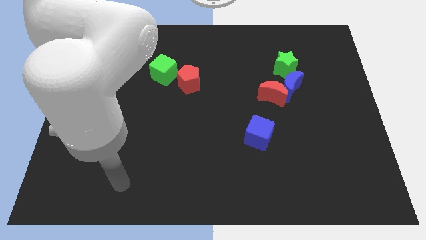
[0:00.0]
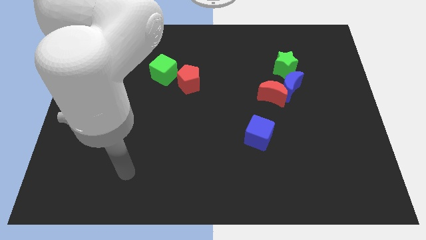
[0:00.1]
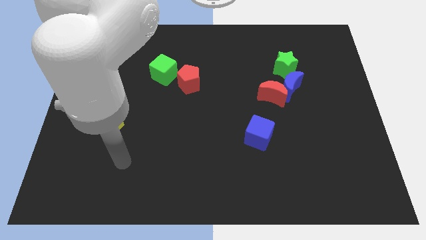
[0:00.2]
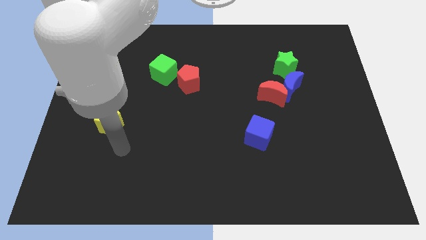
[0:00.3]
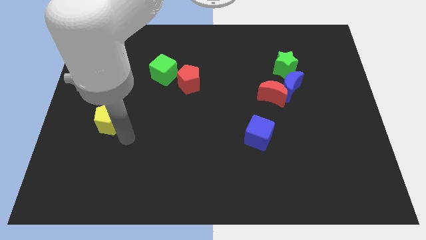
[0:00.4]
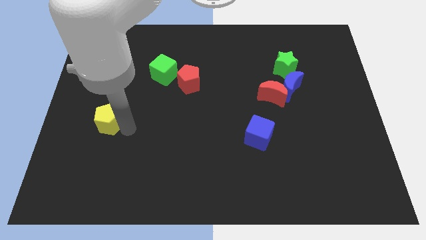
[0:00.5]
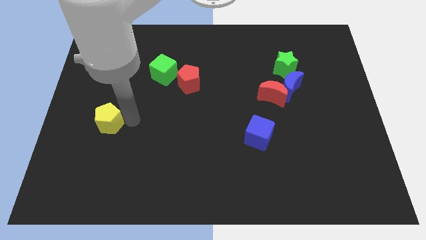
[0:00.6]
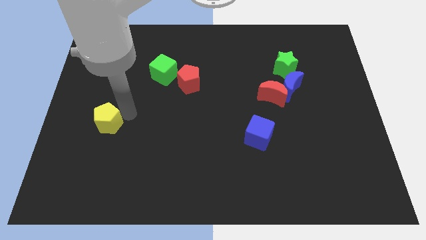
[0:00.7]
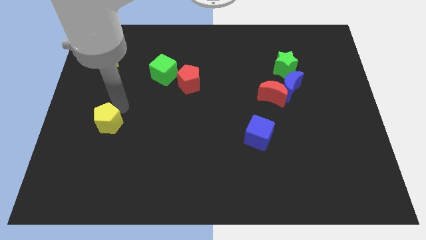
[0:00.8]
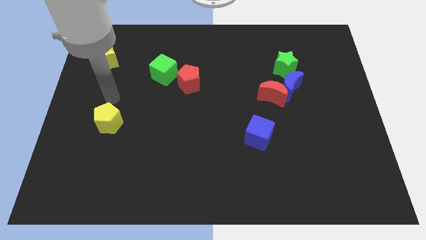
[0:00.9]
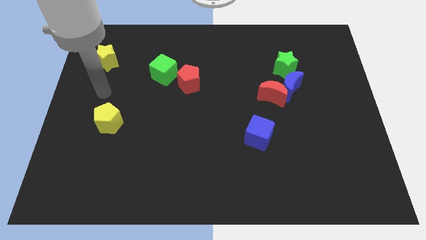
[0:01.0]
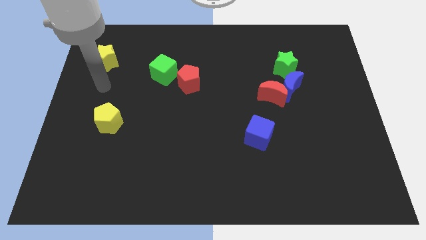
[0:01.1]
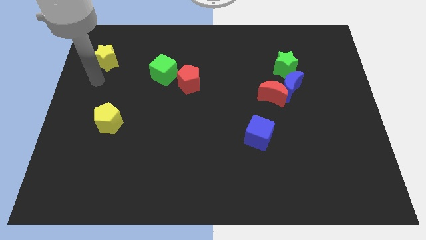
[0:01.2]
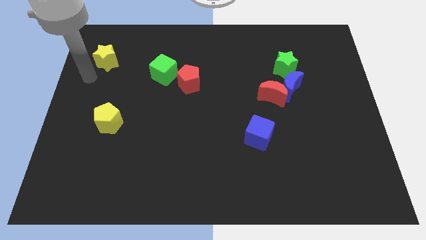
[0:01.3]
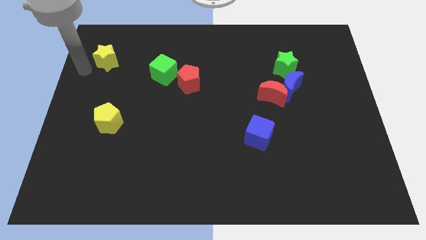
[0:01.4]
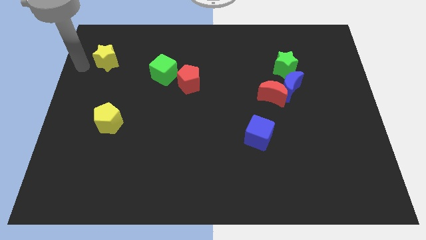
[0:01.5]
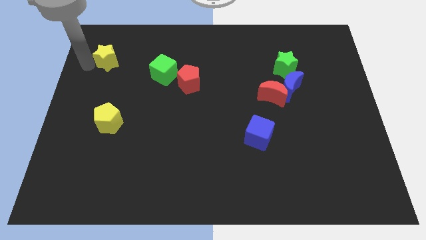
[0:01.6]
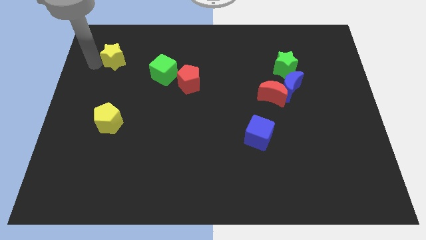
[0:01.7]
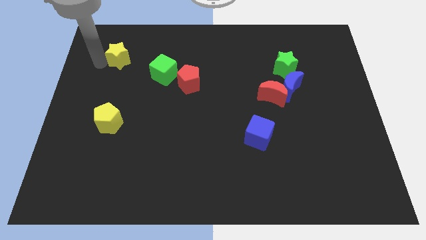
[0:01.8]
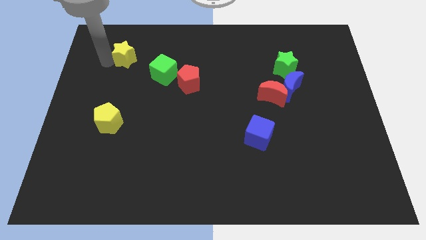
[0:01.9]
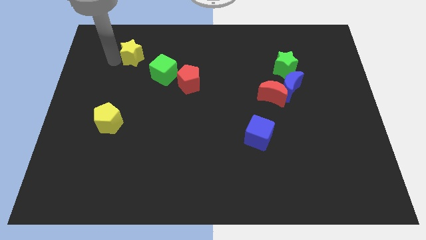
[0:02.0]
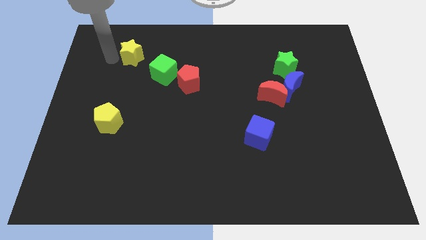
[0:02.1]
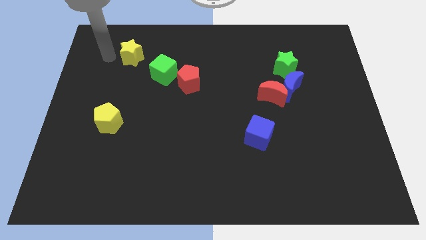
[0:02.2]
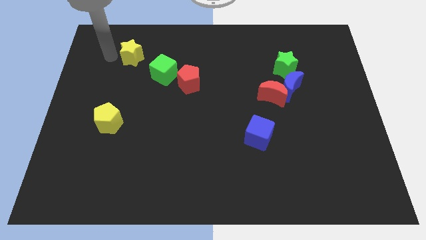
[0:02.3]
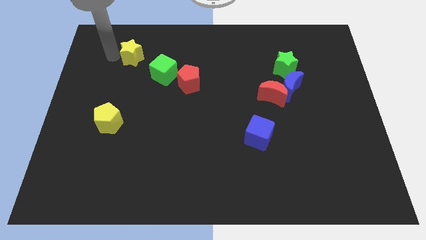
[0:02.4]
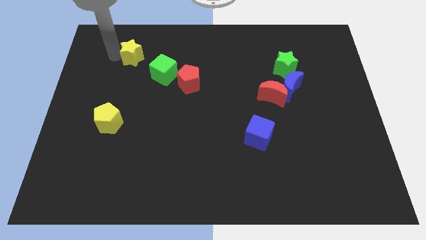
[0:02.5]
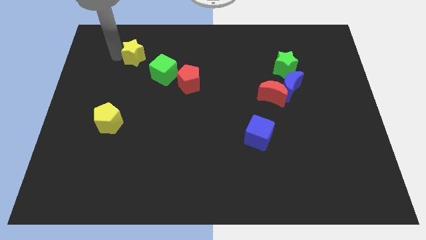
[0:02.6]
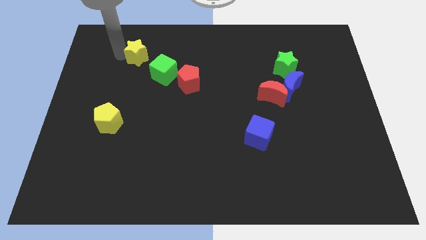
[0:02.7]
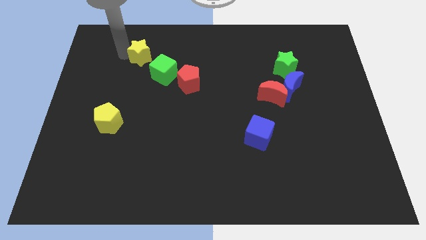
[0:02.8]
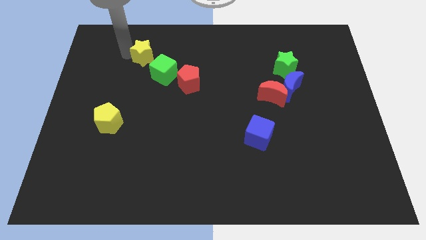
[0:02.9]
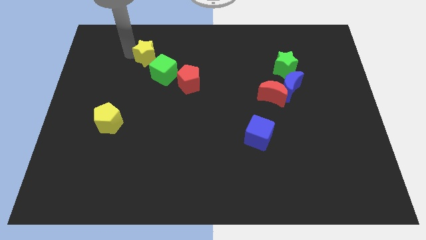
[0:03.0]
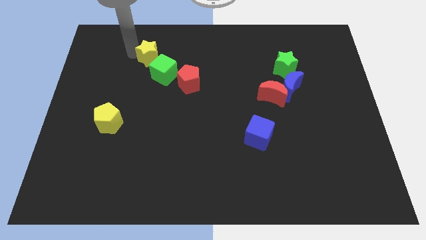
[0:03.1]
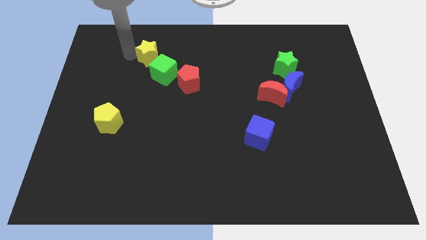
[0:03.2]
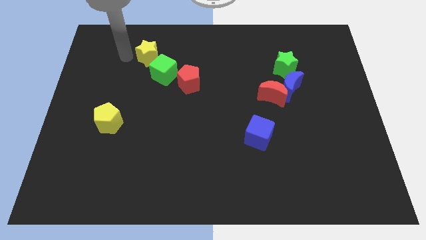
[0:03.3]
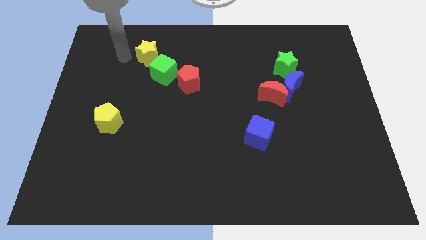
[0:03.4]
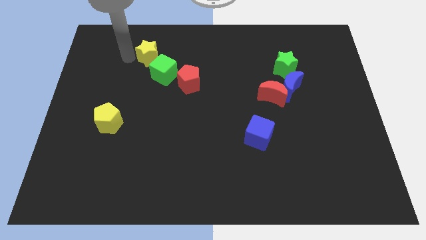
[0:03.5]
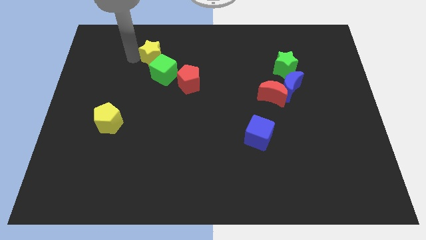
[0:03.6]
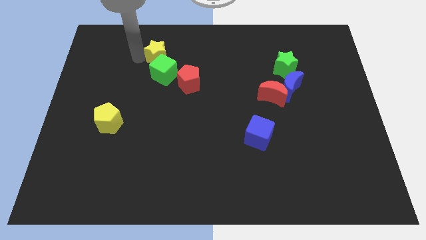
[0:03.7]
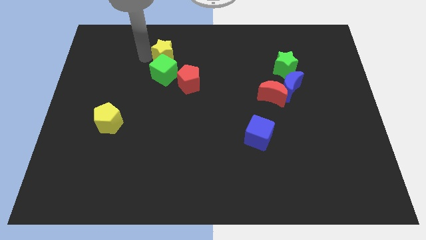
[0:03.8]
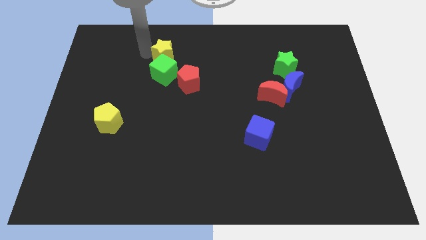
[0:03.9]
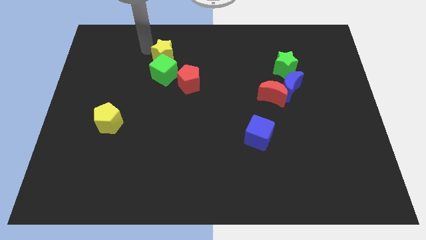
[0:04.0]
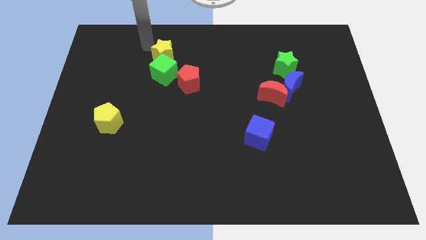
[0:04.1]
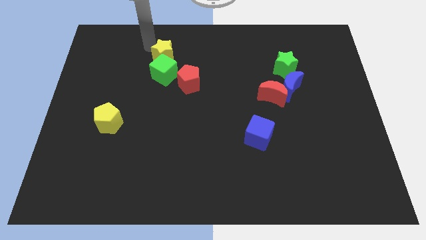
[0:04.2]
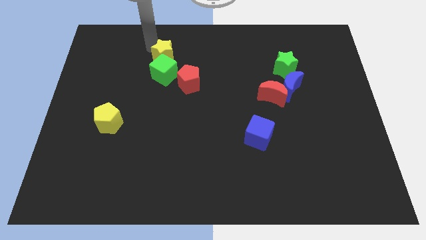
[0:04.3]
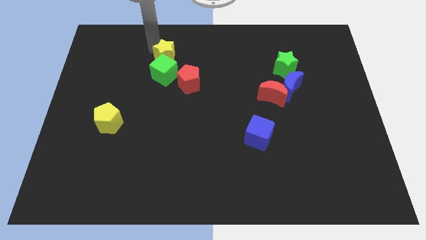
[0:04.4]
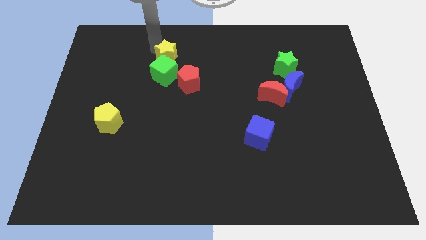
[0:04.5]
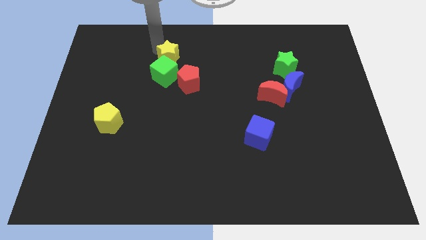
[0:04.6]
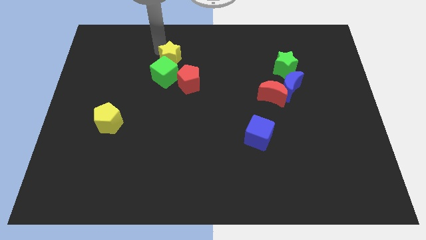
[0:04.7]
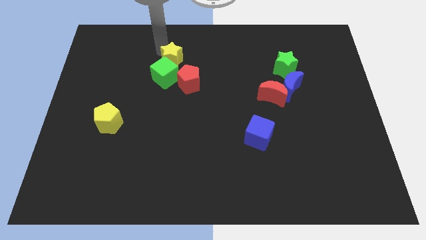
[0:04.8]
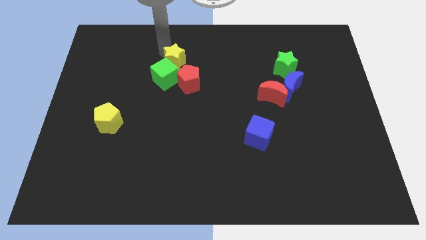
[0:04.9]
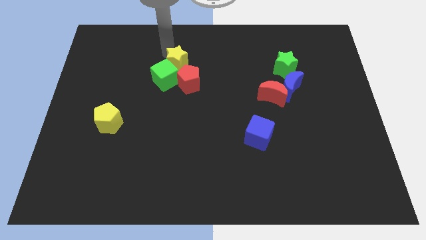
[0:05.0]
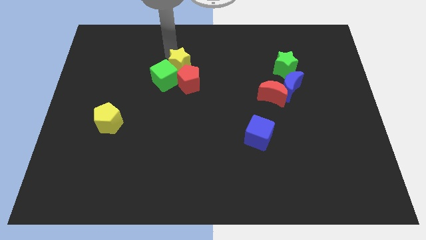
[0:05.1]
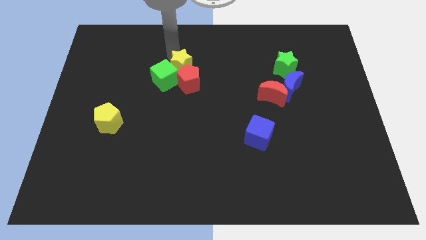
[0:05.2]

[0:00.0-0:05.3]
put the yellow star close to the red pentagon

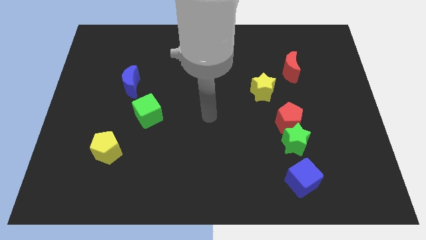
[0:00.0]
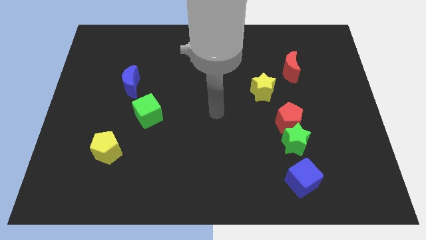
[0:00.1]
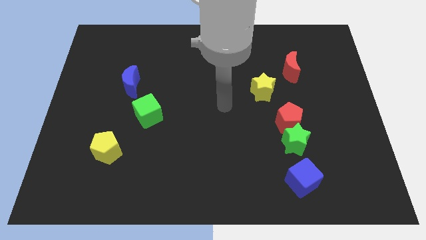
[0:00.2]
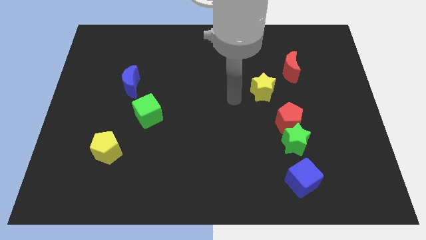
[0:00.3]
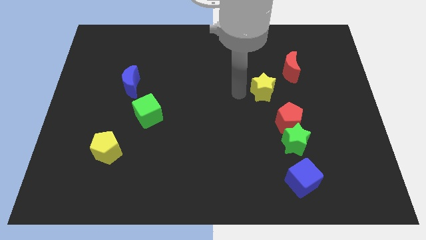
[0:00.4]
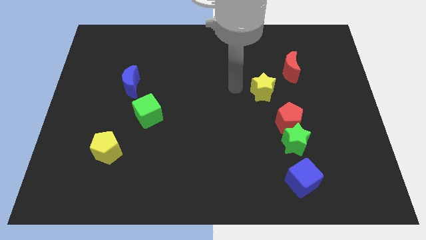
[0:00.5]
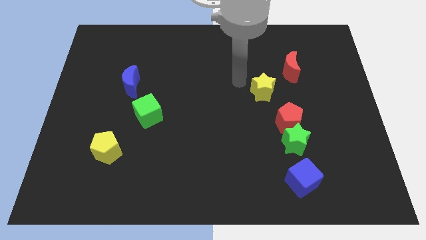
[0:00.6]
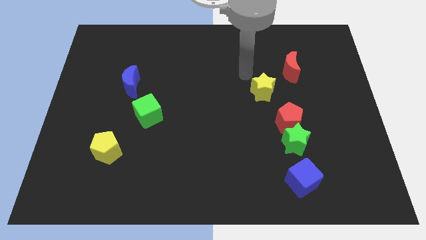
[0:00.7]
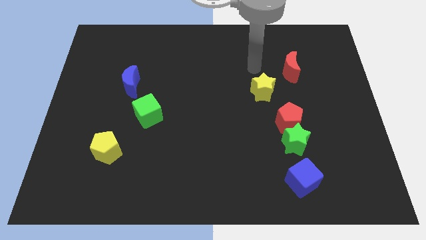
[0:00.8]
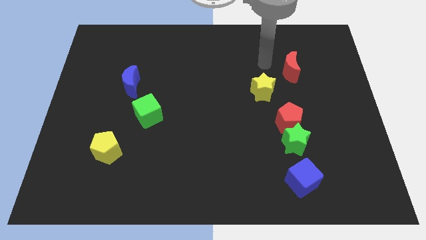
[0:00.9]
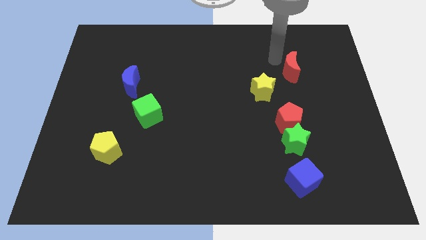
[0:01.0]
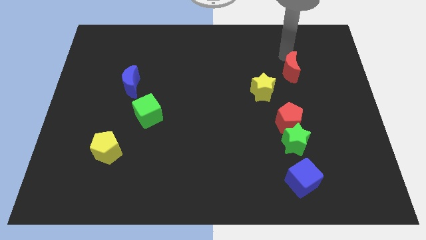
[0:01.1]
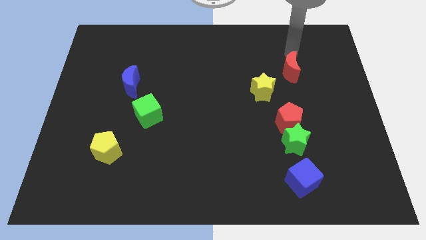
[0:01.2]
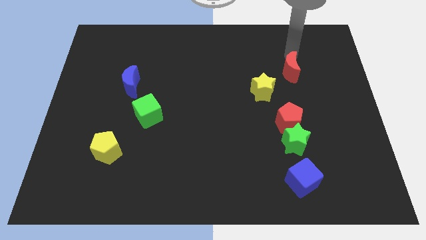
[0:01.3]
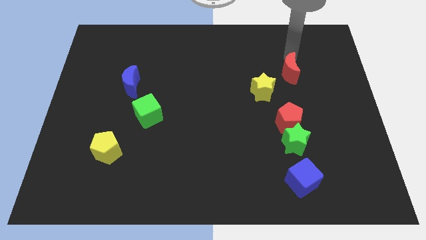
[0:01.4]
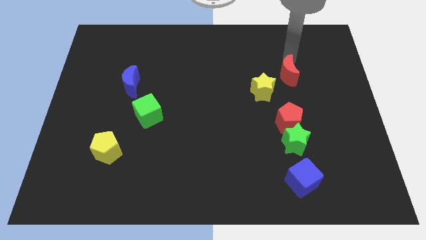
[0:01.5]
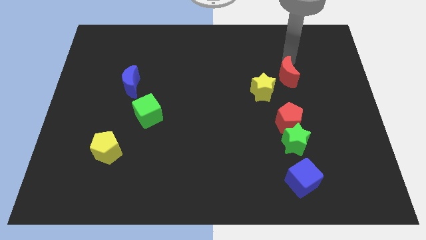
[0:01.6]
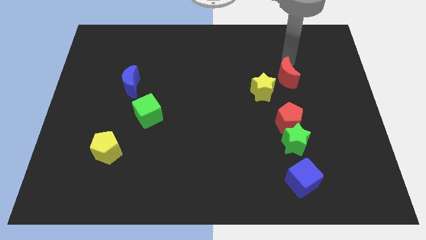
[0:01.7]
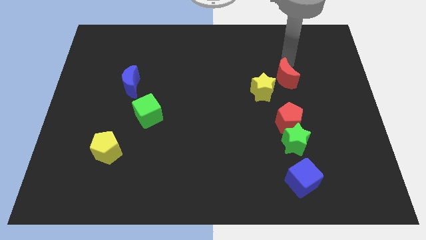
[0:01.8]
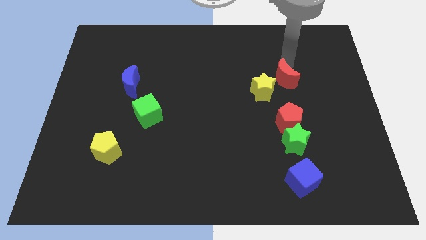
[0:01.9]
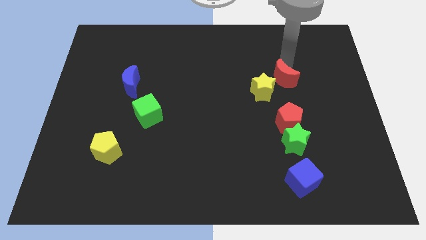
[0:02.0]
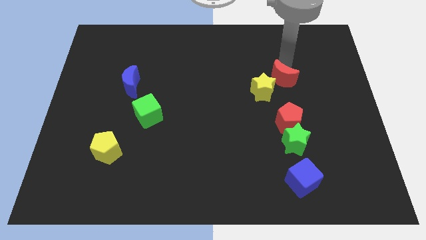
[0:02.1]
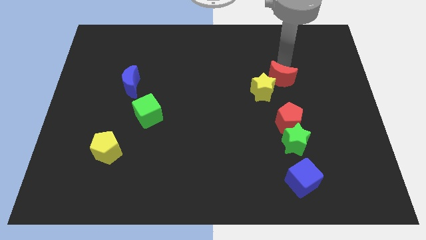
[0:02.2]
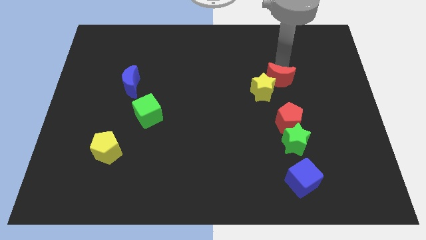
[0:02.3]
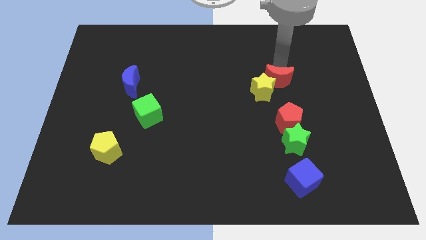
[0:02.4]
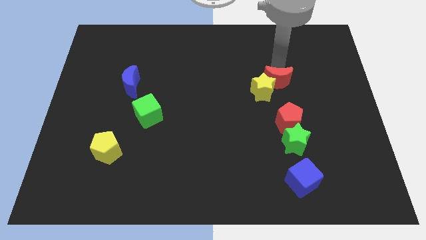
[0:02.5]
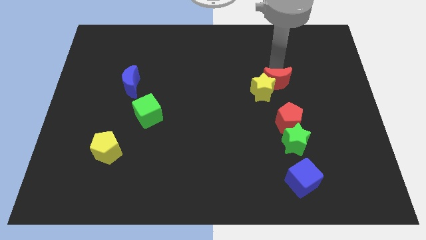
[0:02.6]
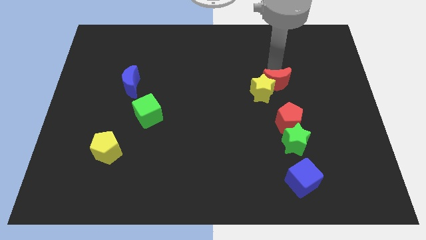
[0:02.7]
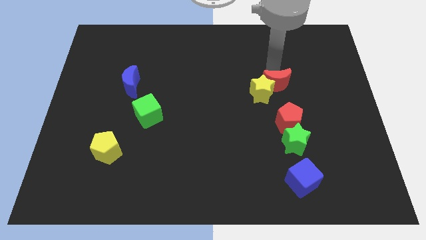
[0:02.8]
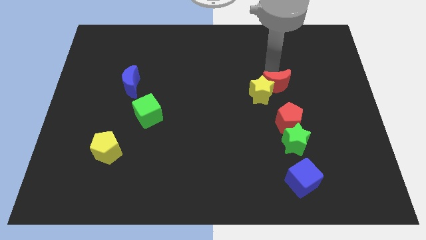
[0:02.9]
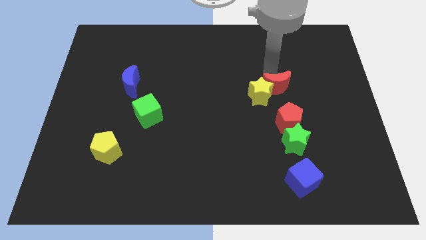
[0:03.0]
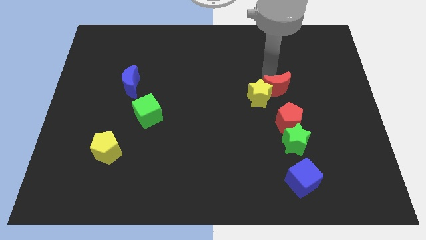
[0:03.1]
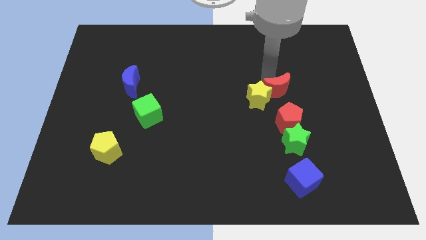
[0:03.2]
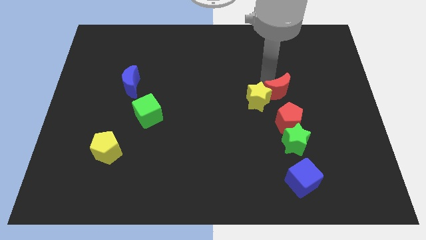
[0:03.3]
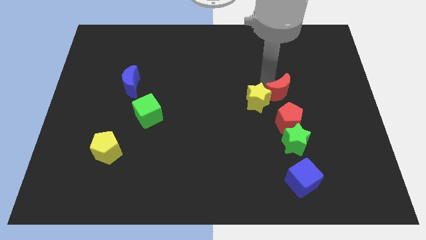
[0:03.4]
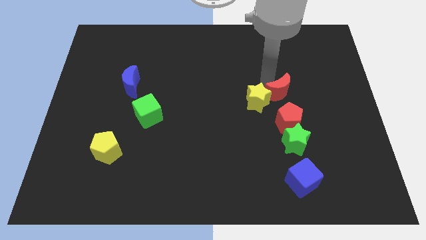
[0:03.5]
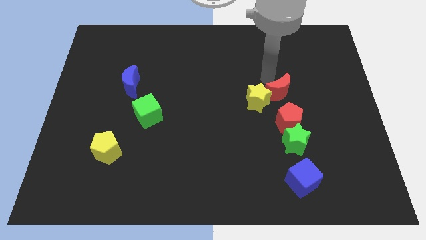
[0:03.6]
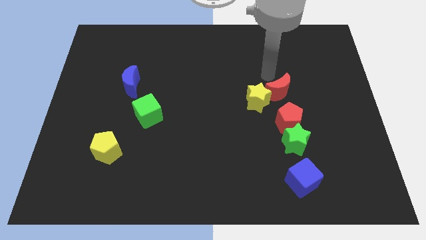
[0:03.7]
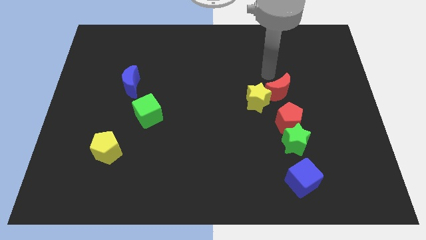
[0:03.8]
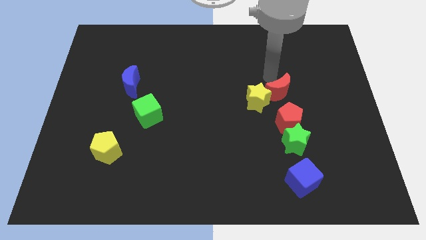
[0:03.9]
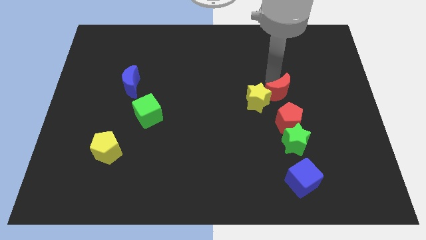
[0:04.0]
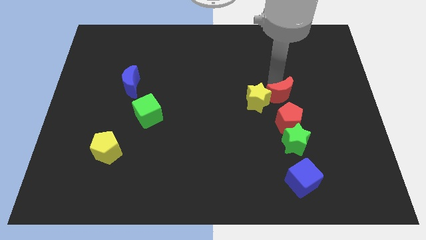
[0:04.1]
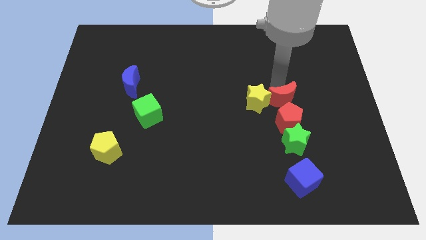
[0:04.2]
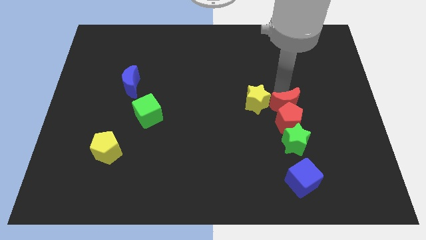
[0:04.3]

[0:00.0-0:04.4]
push the red moon towards the red pentagon
